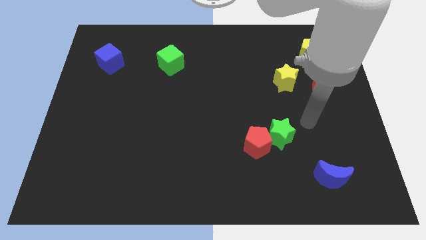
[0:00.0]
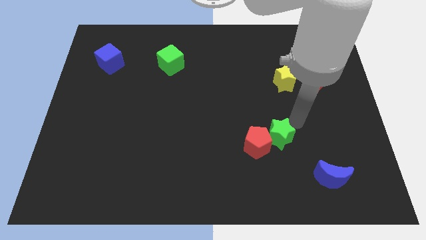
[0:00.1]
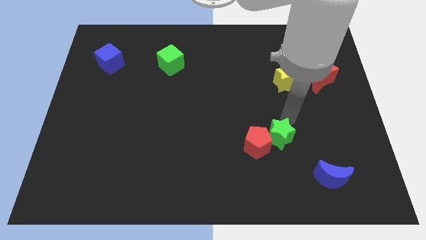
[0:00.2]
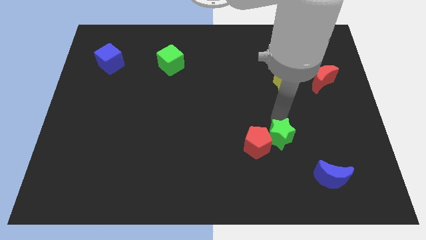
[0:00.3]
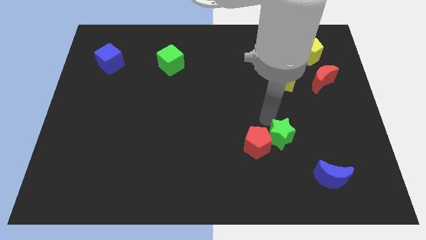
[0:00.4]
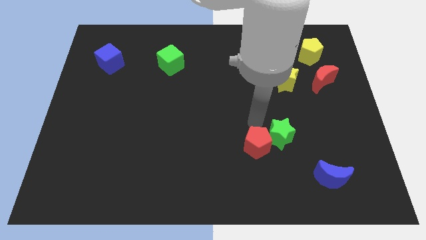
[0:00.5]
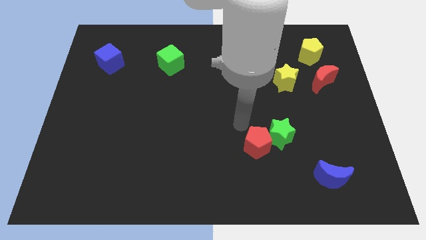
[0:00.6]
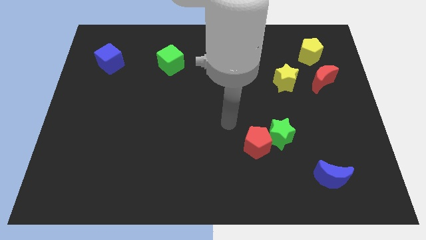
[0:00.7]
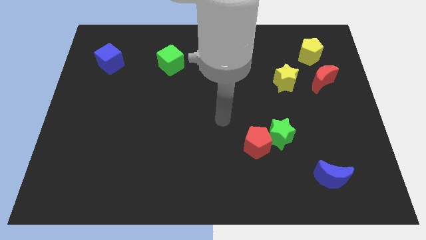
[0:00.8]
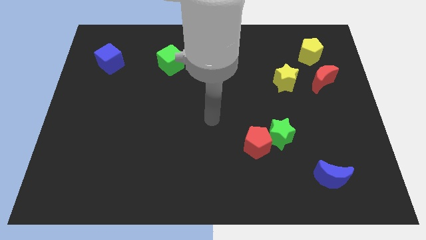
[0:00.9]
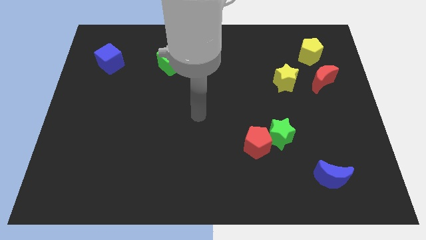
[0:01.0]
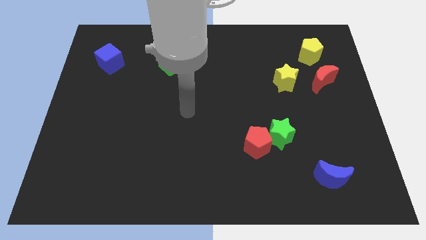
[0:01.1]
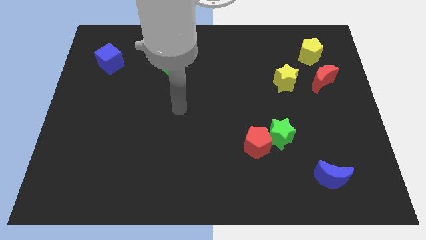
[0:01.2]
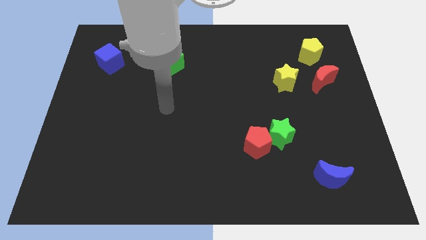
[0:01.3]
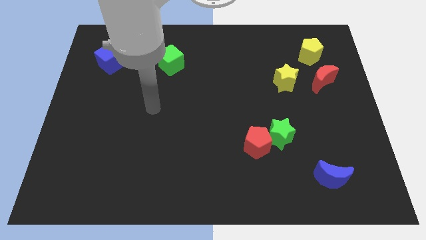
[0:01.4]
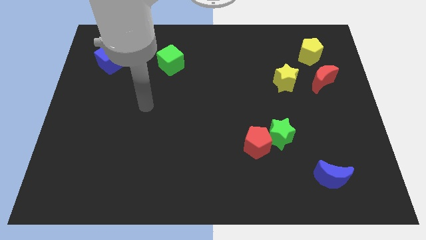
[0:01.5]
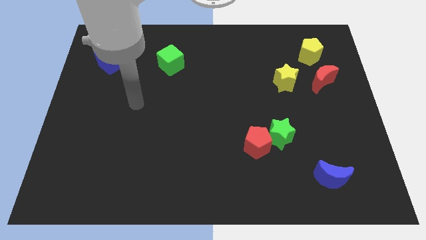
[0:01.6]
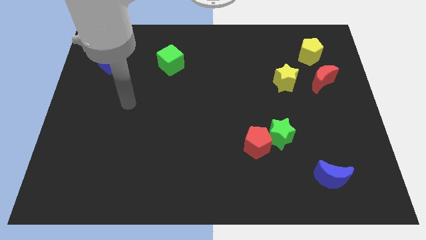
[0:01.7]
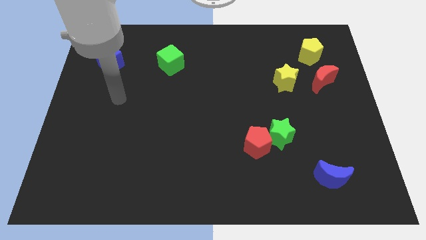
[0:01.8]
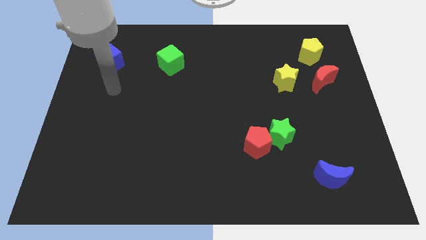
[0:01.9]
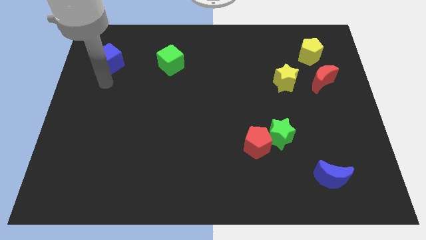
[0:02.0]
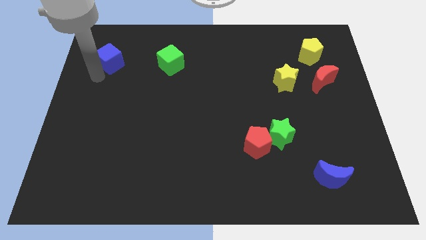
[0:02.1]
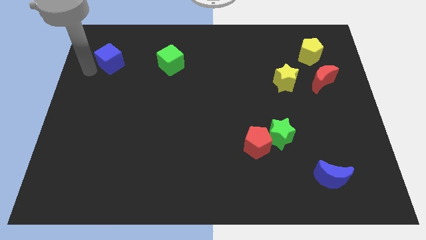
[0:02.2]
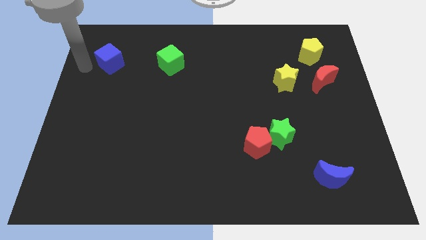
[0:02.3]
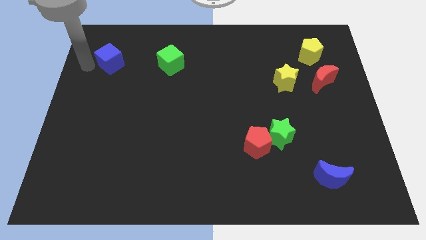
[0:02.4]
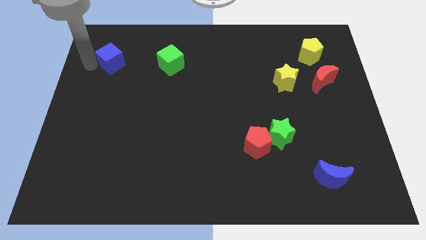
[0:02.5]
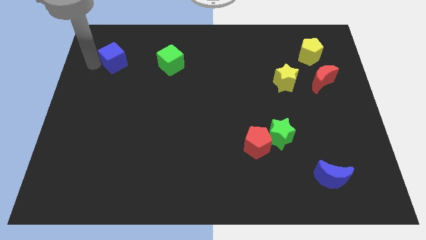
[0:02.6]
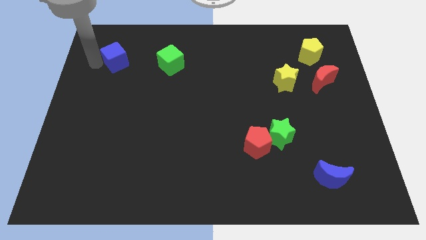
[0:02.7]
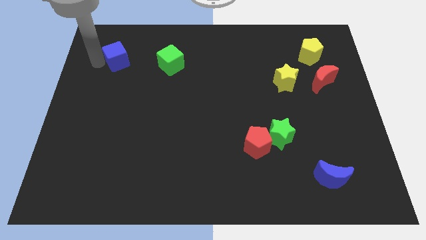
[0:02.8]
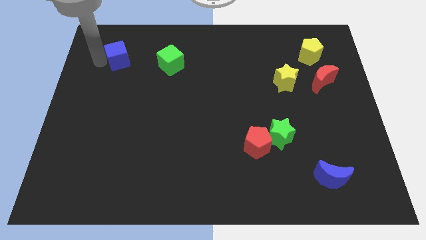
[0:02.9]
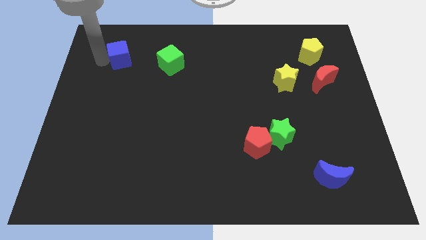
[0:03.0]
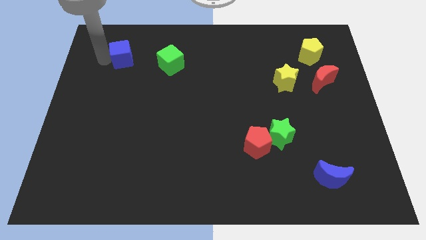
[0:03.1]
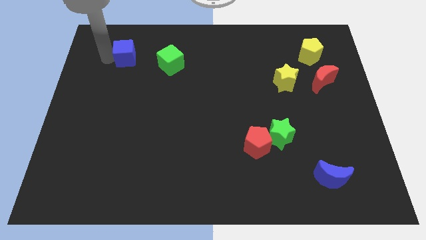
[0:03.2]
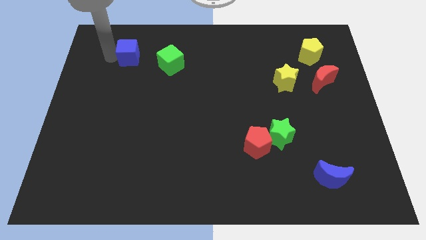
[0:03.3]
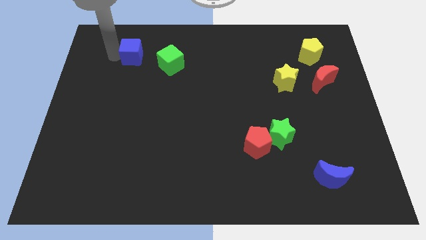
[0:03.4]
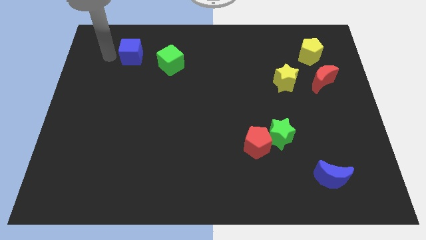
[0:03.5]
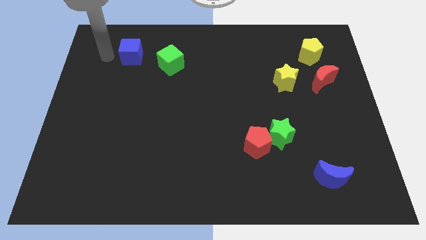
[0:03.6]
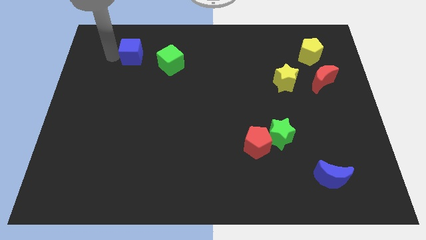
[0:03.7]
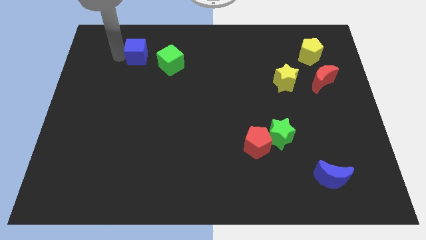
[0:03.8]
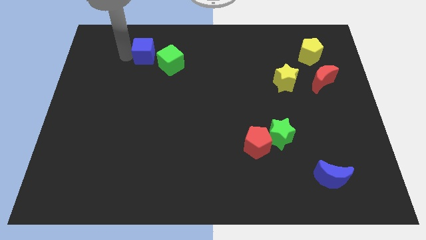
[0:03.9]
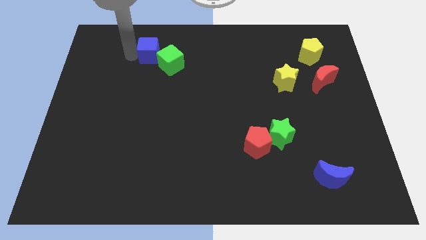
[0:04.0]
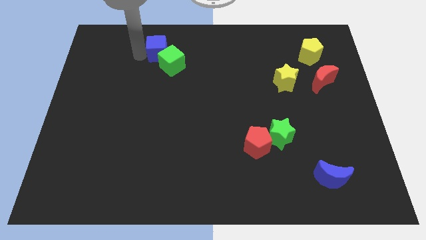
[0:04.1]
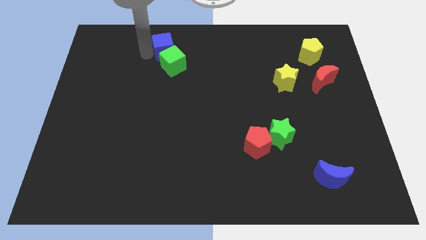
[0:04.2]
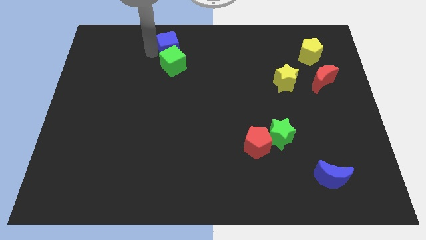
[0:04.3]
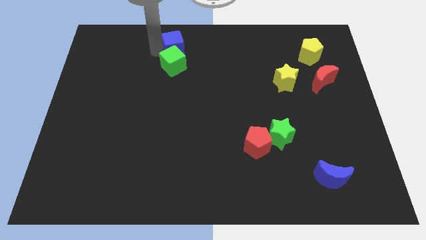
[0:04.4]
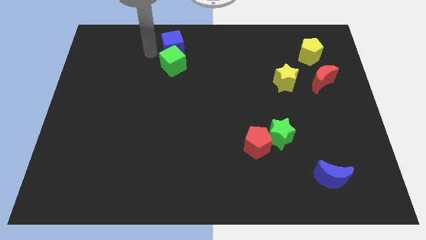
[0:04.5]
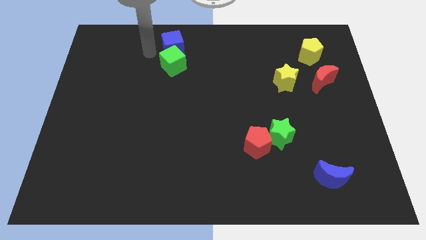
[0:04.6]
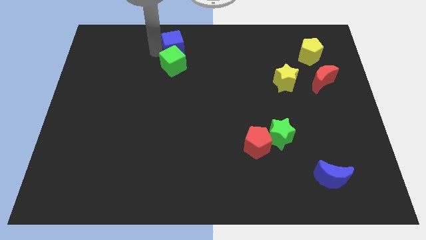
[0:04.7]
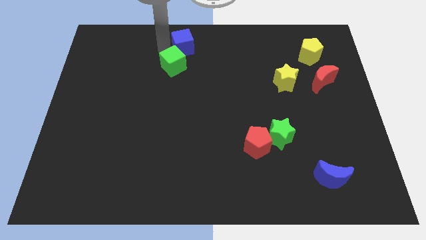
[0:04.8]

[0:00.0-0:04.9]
slide the blue cube to the top

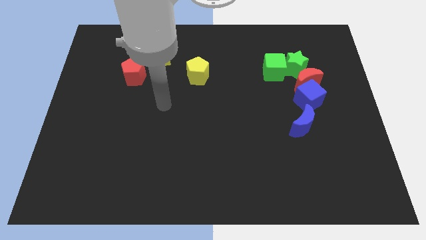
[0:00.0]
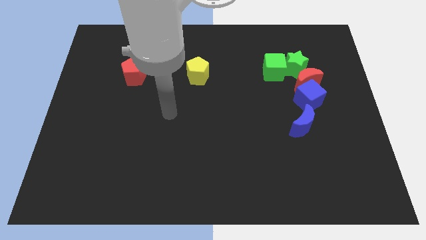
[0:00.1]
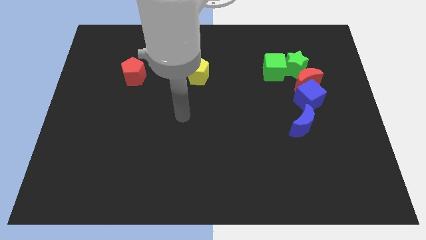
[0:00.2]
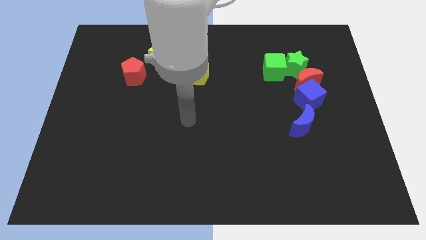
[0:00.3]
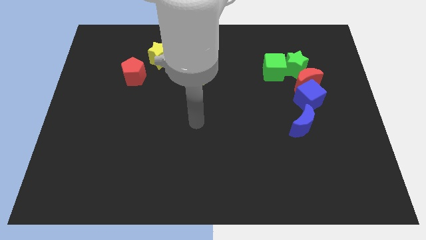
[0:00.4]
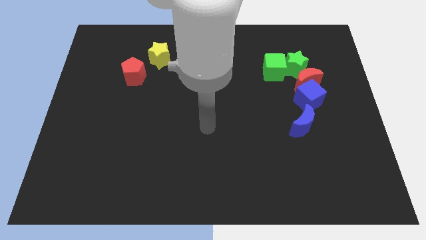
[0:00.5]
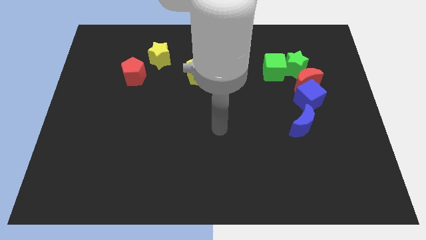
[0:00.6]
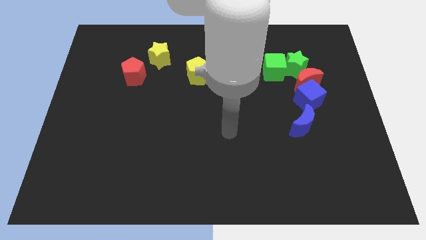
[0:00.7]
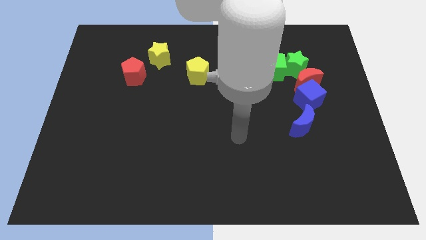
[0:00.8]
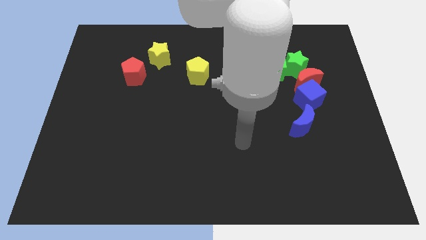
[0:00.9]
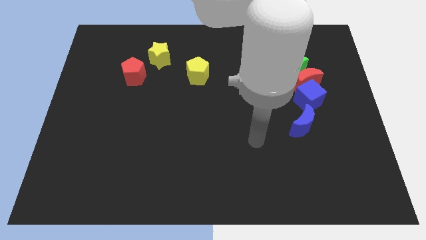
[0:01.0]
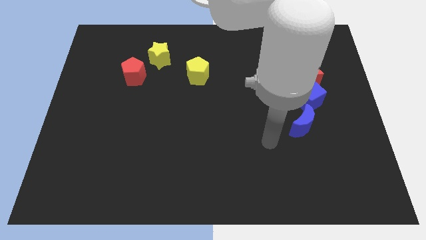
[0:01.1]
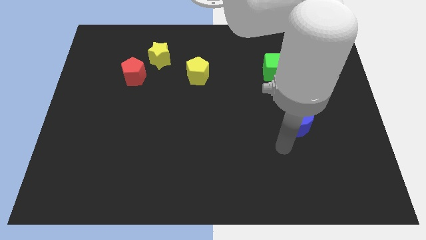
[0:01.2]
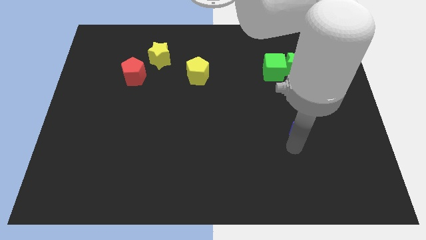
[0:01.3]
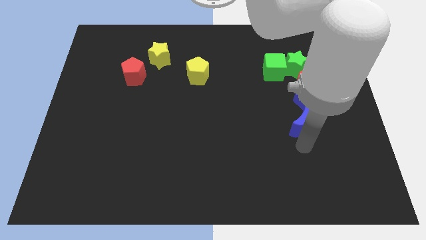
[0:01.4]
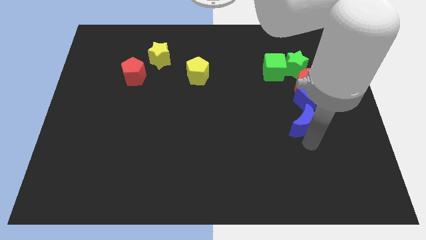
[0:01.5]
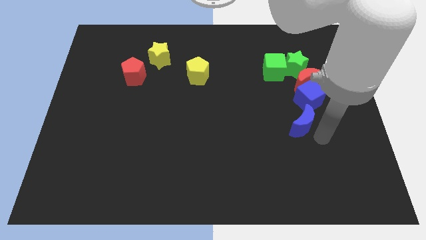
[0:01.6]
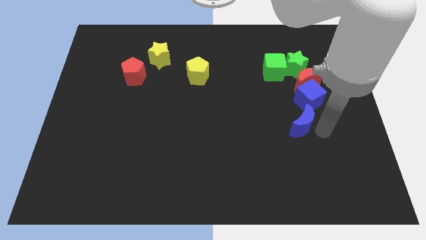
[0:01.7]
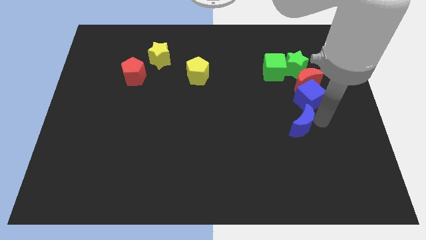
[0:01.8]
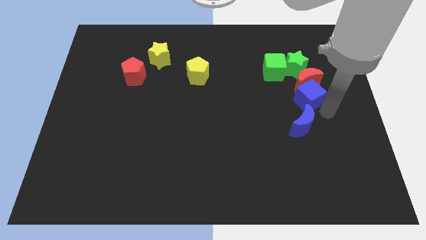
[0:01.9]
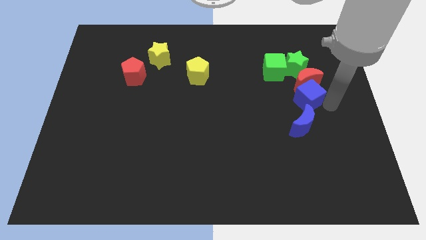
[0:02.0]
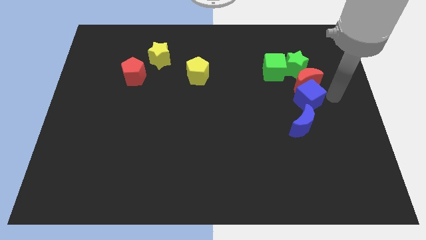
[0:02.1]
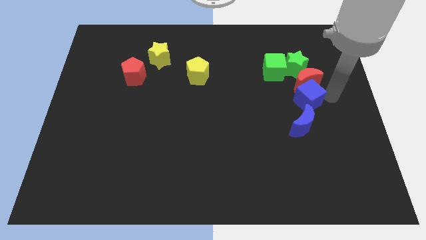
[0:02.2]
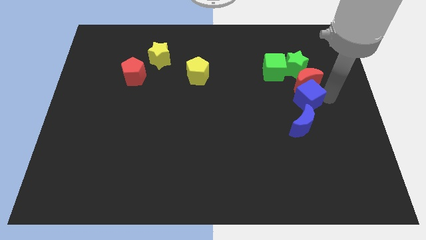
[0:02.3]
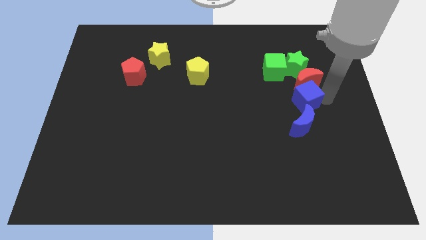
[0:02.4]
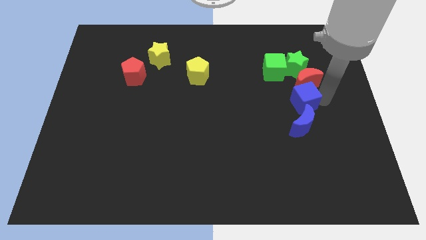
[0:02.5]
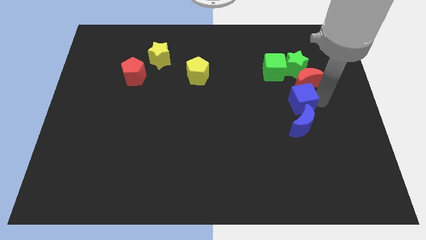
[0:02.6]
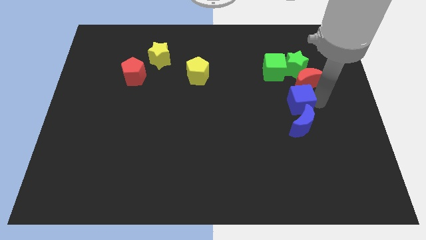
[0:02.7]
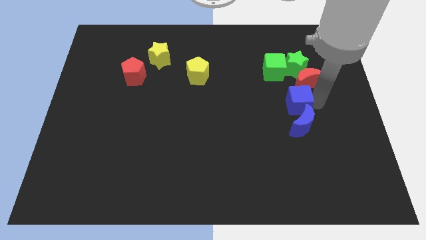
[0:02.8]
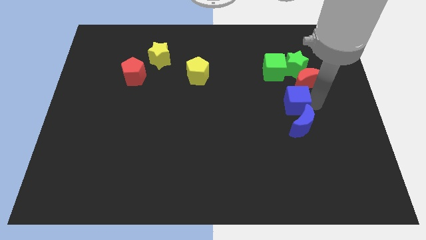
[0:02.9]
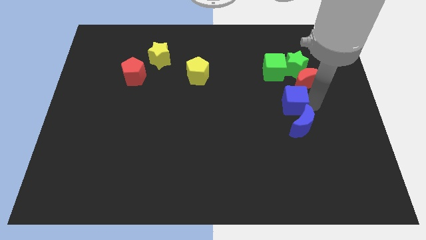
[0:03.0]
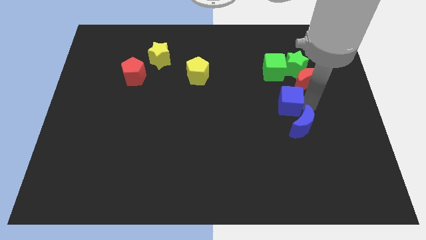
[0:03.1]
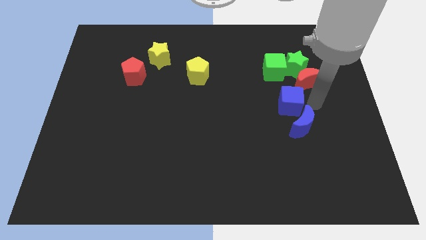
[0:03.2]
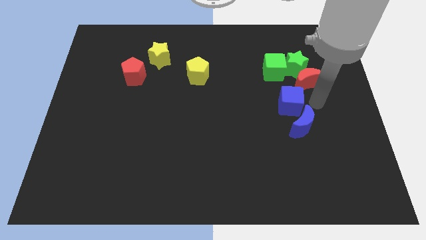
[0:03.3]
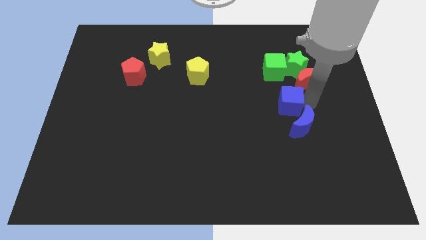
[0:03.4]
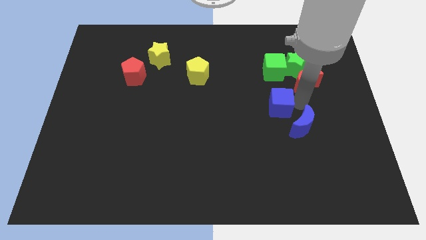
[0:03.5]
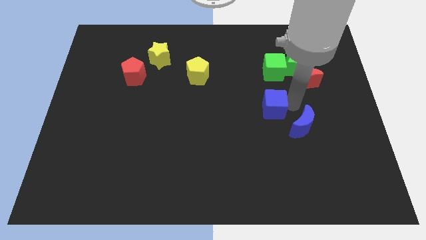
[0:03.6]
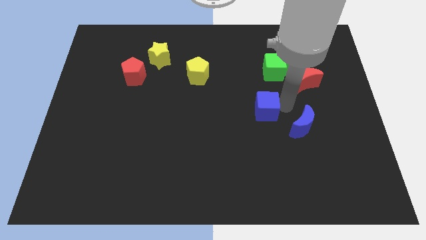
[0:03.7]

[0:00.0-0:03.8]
move the blue cube to the center of the board
